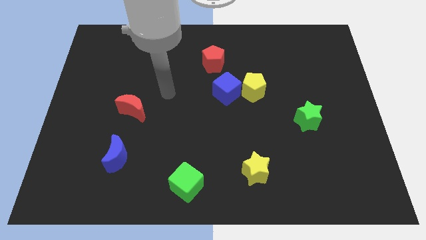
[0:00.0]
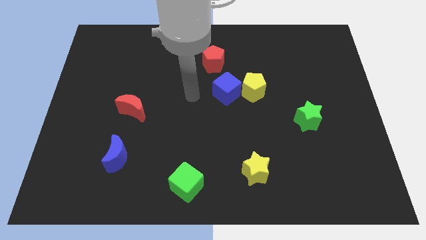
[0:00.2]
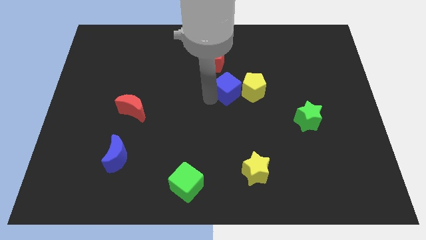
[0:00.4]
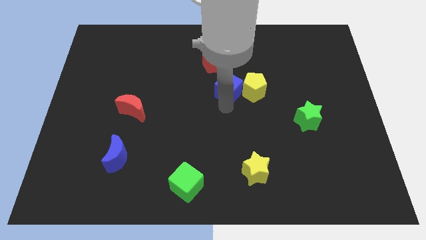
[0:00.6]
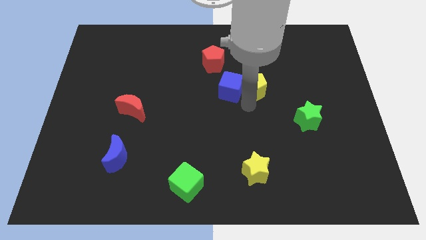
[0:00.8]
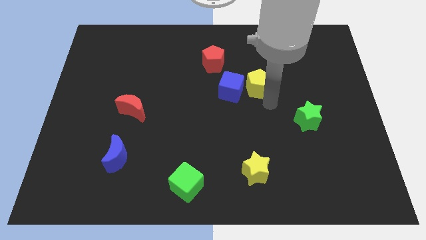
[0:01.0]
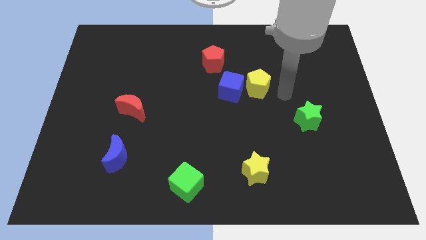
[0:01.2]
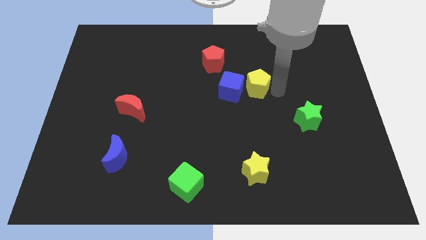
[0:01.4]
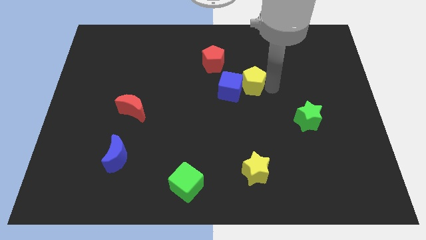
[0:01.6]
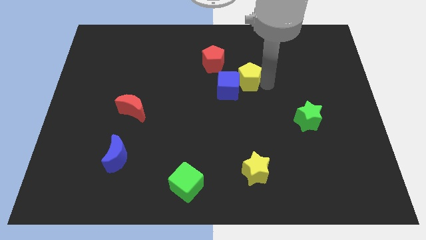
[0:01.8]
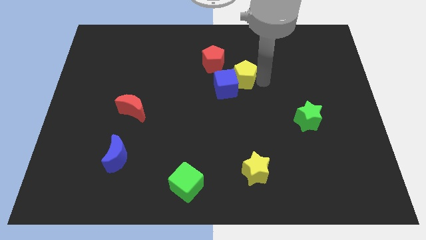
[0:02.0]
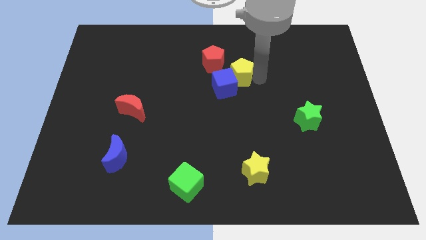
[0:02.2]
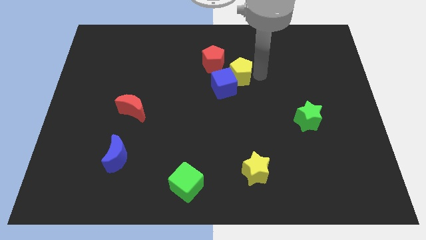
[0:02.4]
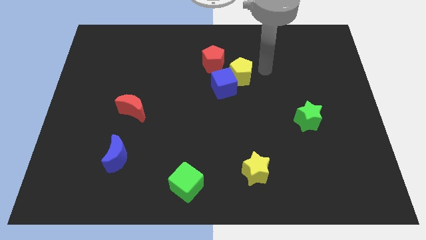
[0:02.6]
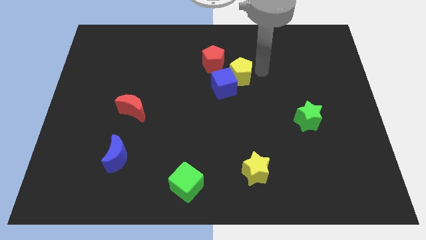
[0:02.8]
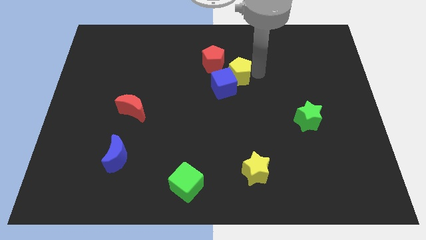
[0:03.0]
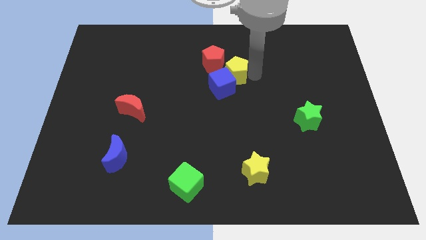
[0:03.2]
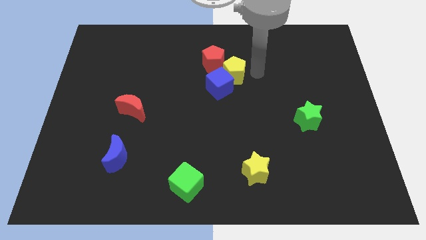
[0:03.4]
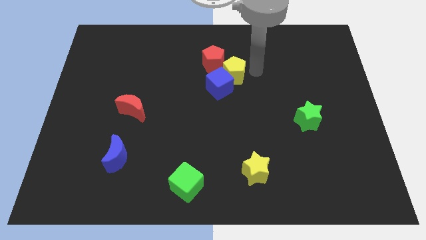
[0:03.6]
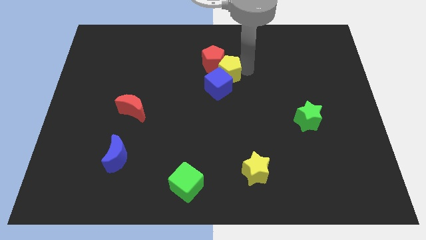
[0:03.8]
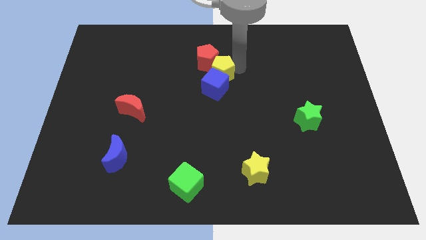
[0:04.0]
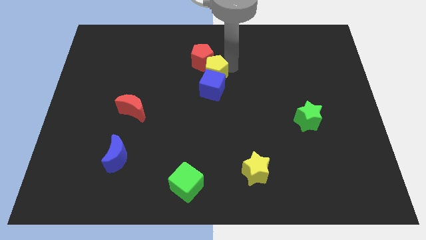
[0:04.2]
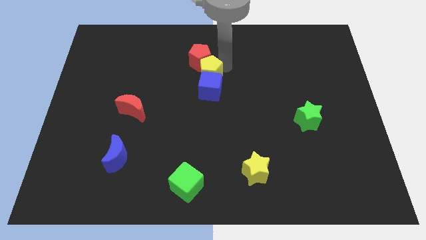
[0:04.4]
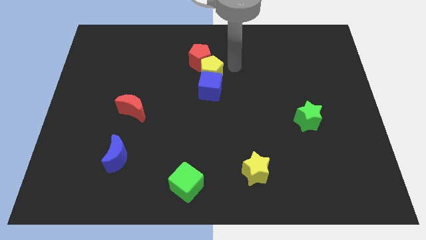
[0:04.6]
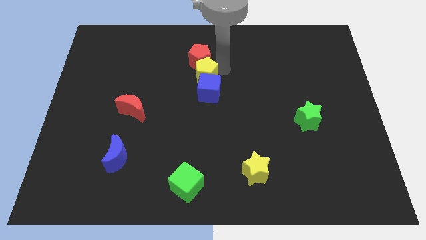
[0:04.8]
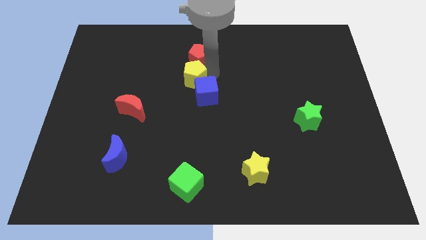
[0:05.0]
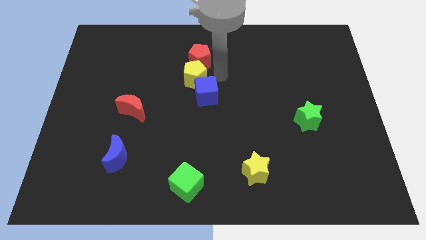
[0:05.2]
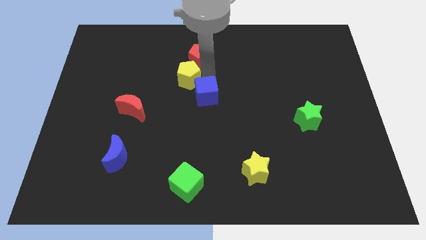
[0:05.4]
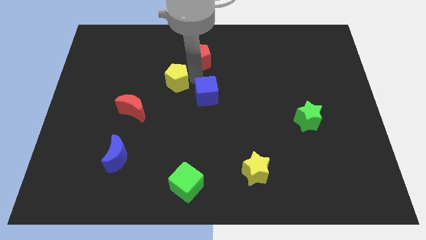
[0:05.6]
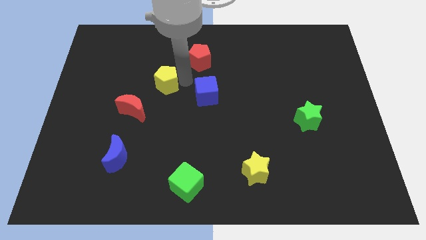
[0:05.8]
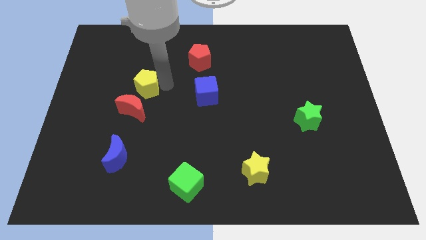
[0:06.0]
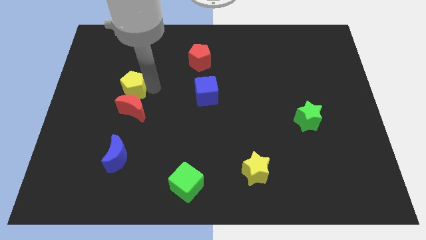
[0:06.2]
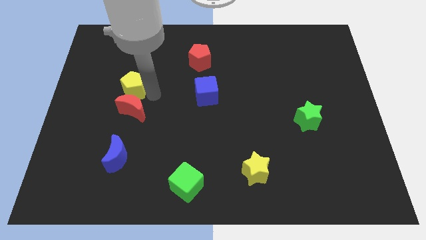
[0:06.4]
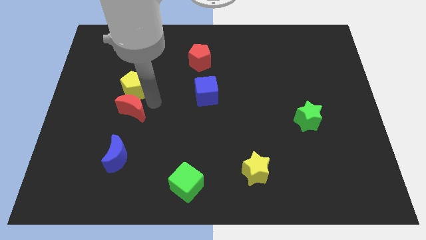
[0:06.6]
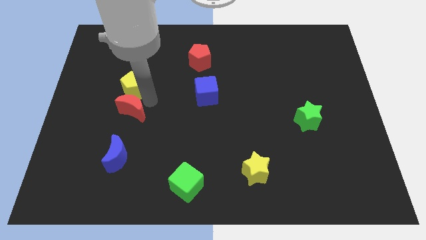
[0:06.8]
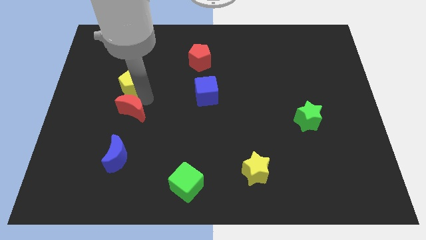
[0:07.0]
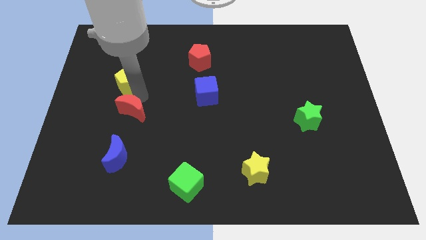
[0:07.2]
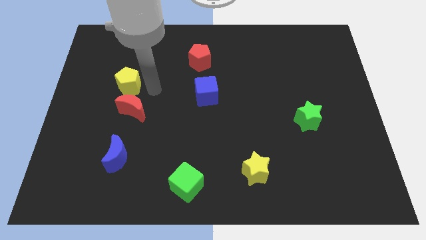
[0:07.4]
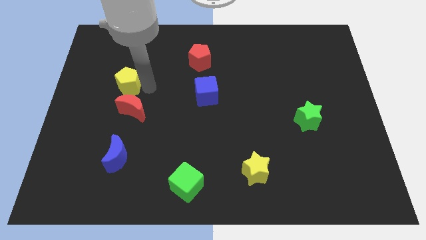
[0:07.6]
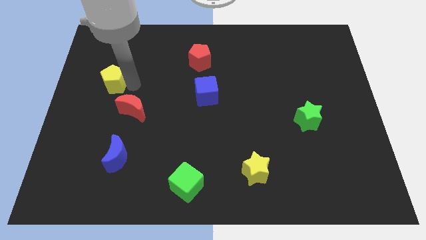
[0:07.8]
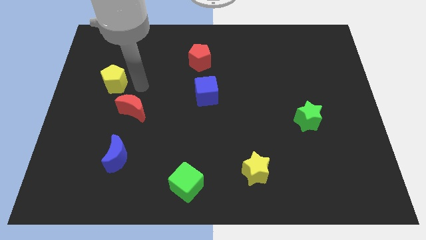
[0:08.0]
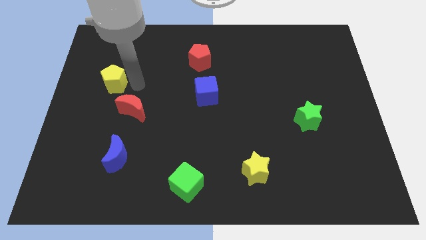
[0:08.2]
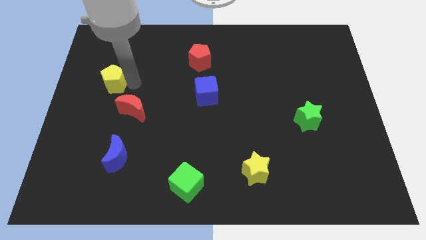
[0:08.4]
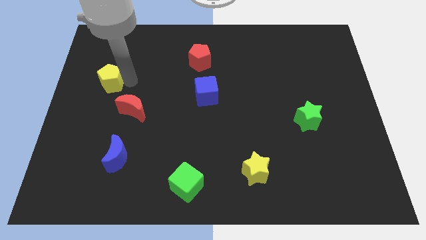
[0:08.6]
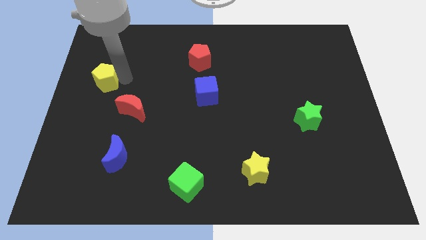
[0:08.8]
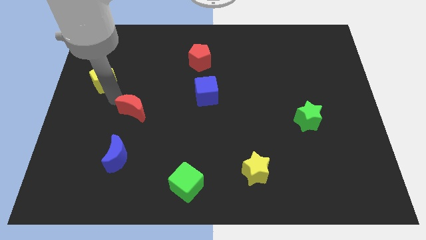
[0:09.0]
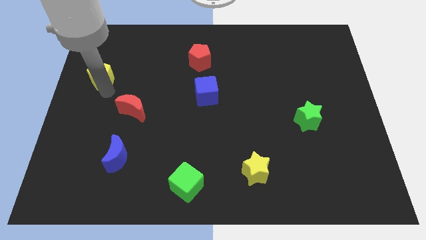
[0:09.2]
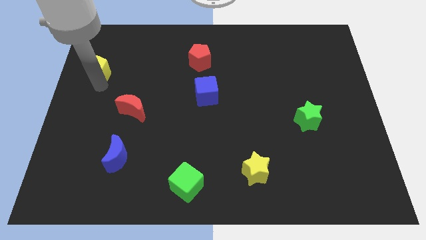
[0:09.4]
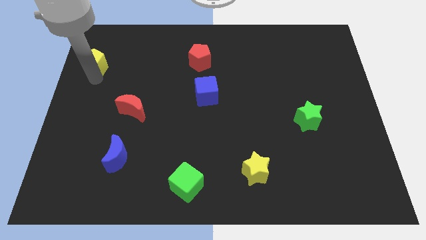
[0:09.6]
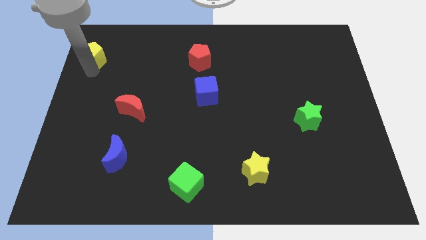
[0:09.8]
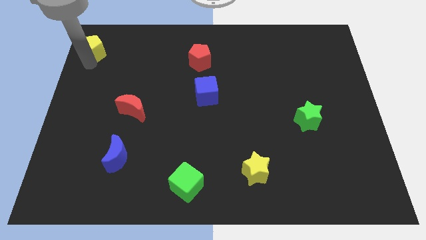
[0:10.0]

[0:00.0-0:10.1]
push the yellow pentagon to the upper left corner

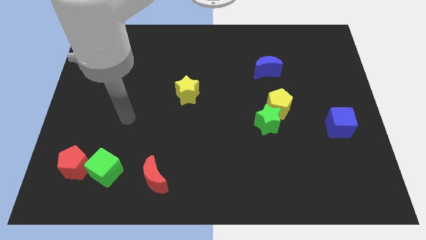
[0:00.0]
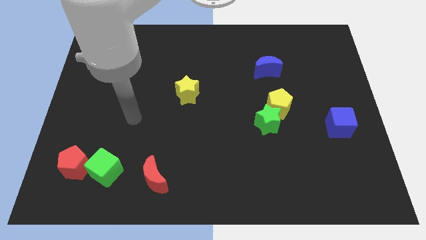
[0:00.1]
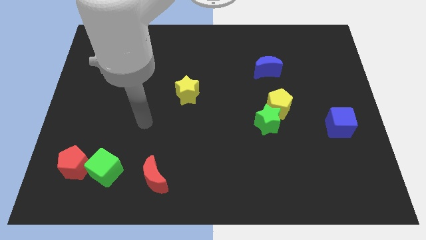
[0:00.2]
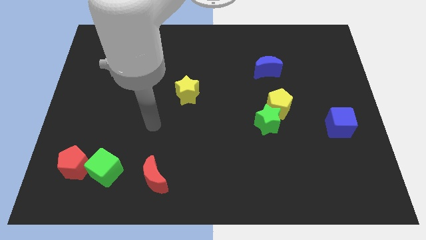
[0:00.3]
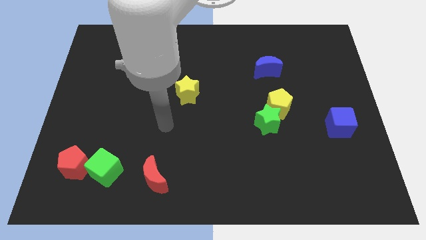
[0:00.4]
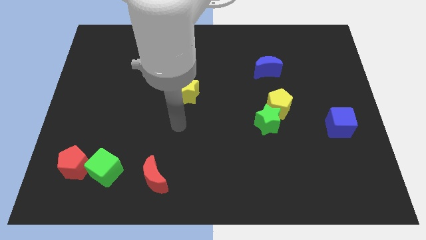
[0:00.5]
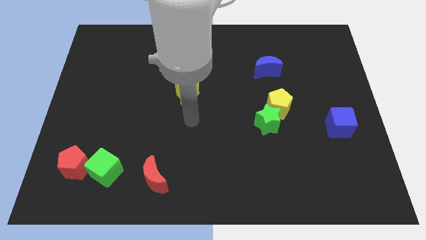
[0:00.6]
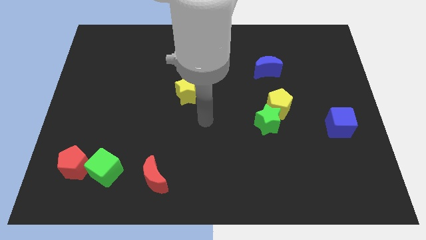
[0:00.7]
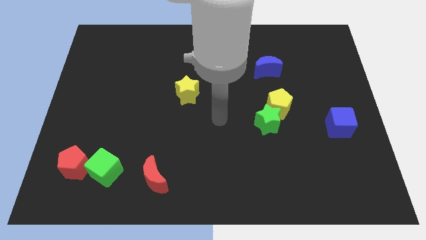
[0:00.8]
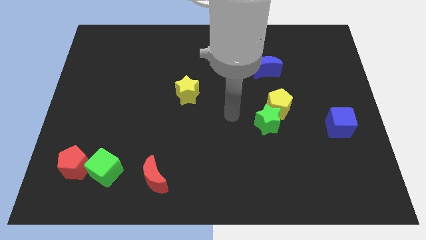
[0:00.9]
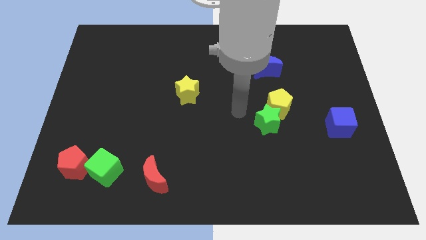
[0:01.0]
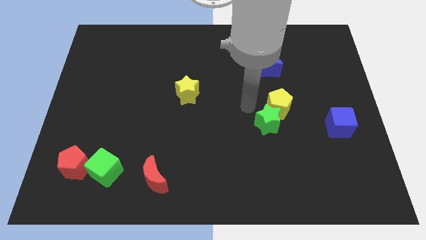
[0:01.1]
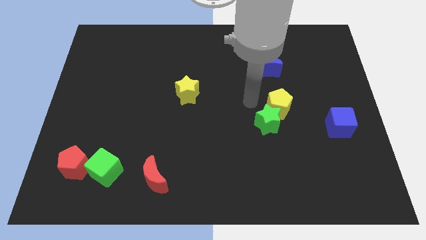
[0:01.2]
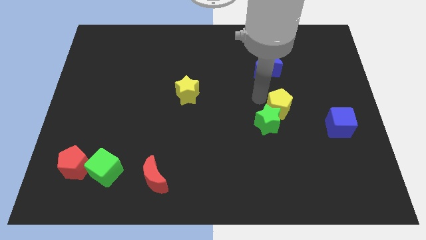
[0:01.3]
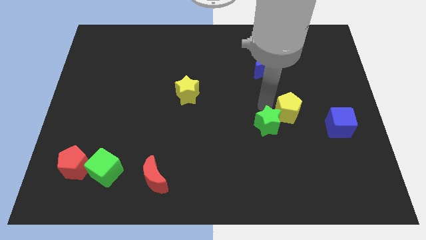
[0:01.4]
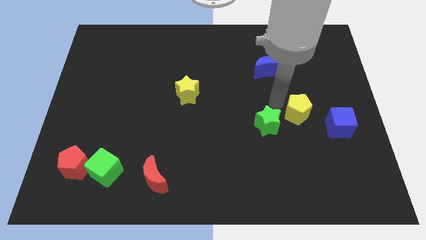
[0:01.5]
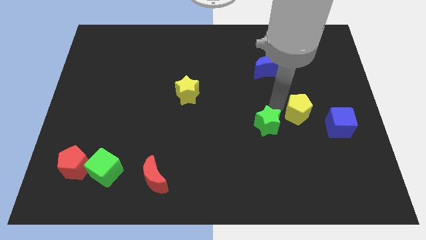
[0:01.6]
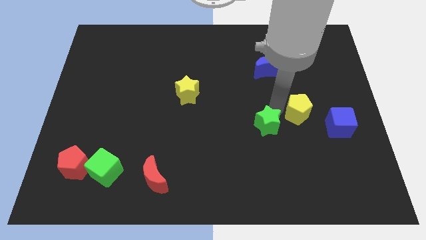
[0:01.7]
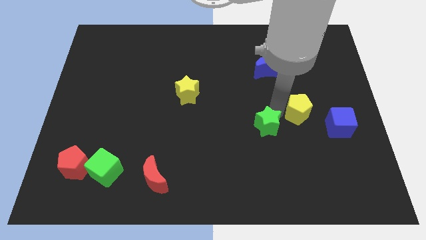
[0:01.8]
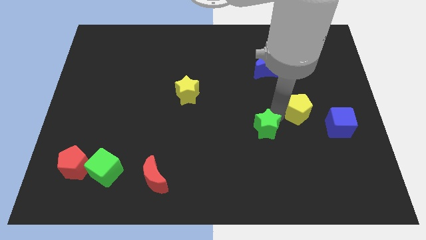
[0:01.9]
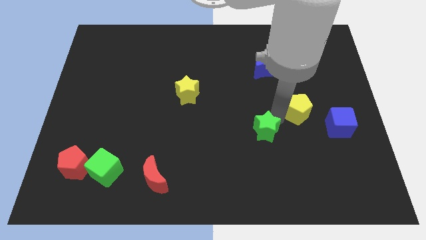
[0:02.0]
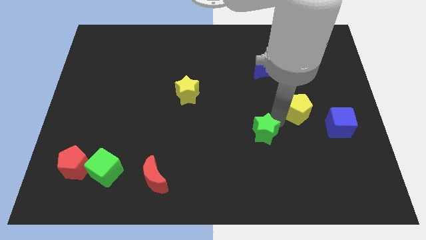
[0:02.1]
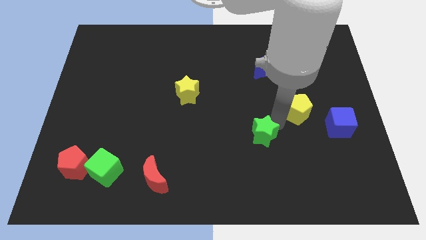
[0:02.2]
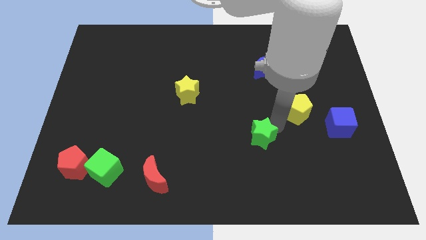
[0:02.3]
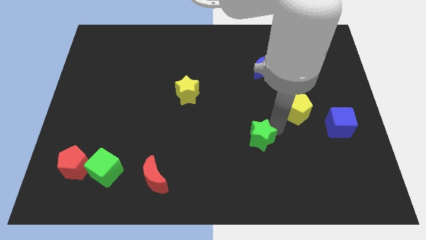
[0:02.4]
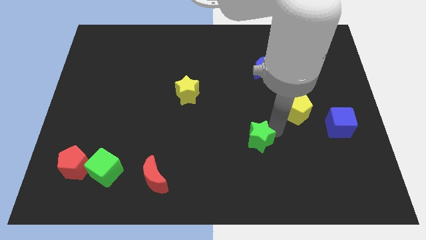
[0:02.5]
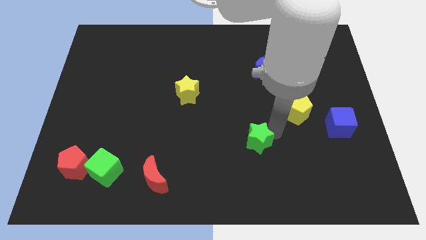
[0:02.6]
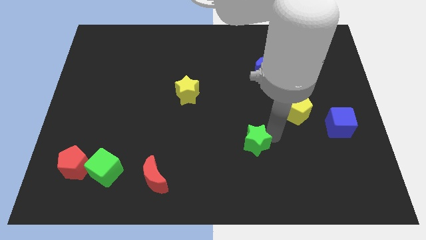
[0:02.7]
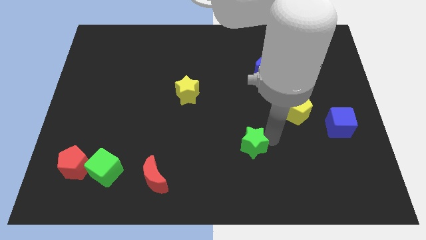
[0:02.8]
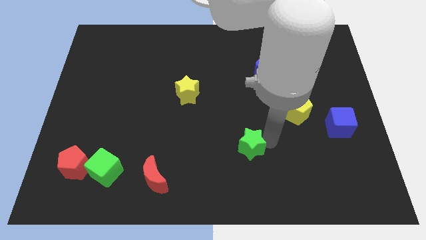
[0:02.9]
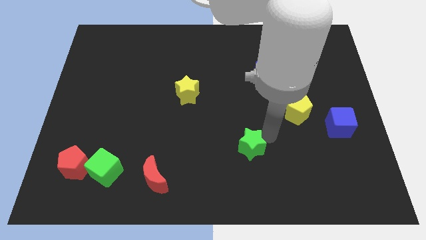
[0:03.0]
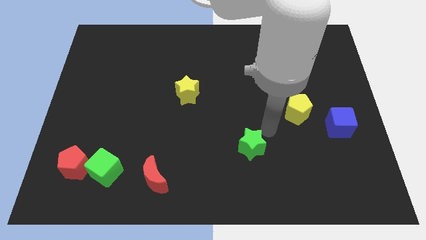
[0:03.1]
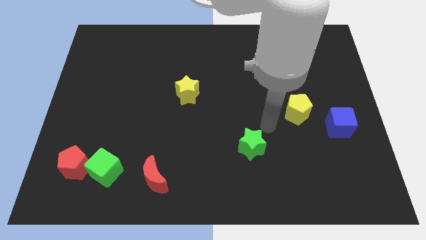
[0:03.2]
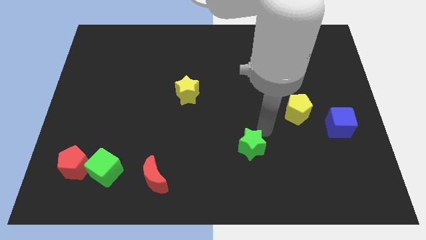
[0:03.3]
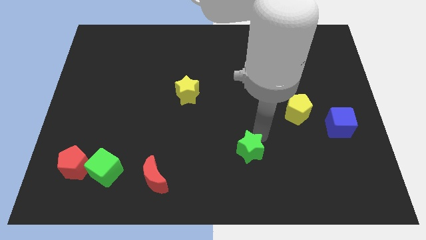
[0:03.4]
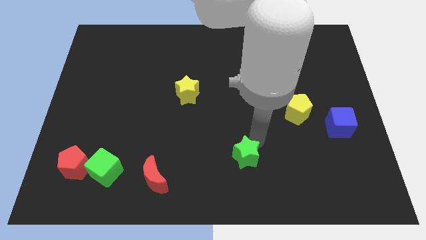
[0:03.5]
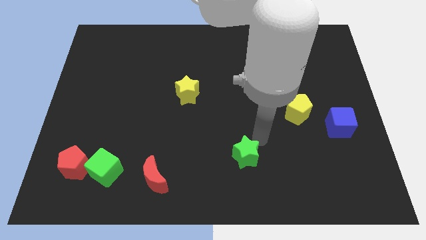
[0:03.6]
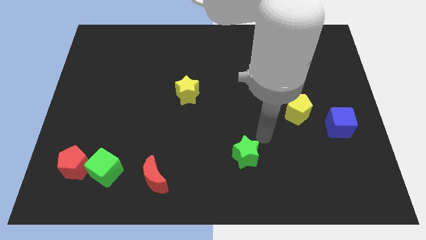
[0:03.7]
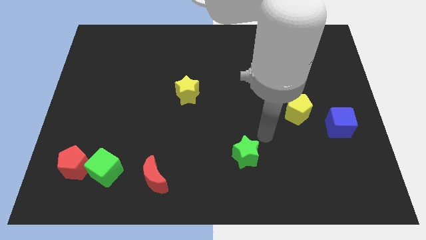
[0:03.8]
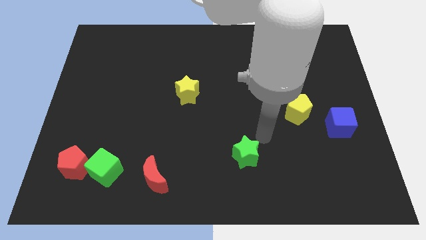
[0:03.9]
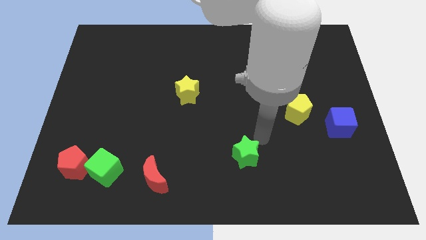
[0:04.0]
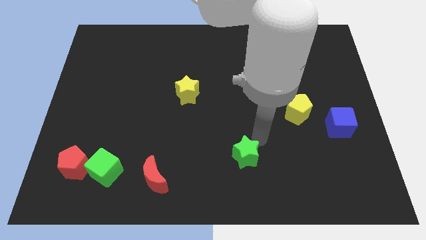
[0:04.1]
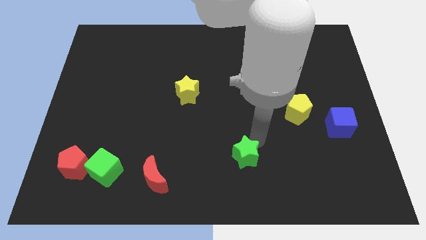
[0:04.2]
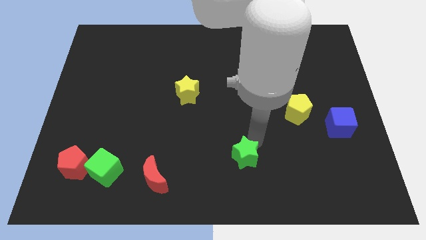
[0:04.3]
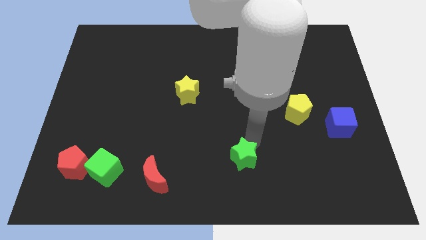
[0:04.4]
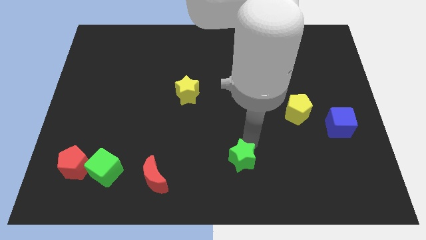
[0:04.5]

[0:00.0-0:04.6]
push the green star to the bottom
